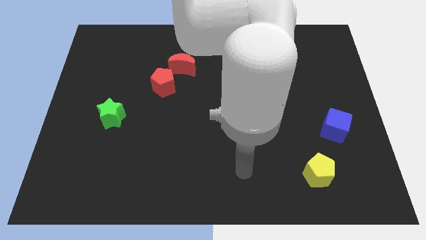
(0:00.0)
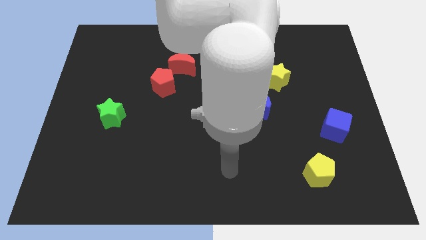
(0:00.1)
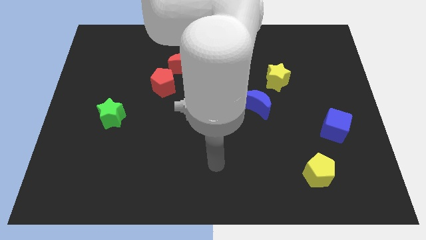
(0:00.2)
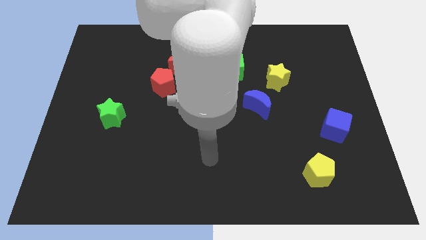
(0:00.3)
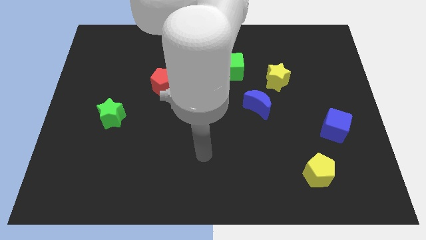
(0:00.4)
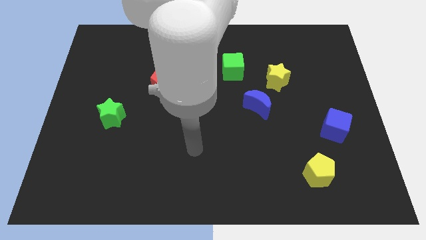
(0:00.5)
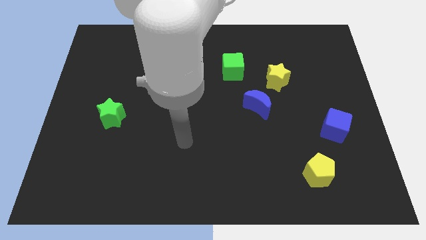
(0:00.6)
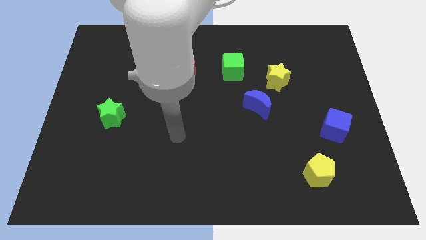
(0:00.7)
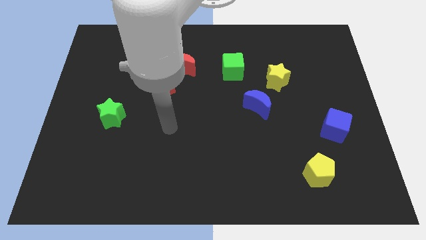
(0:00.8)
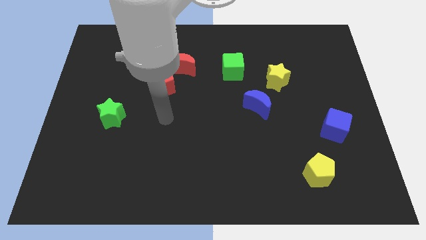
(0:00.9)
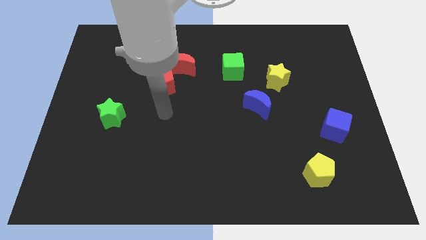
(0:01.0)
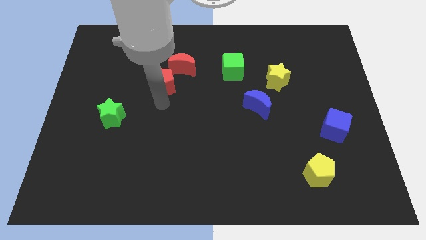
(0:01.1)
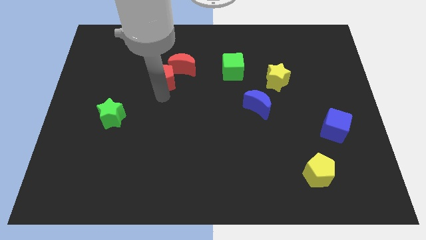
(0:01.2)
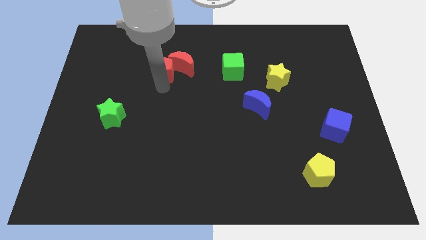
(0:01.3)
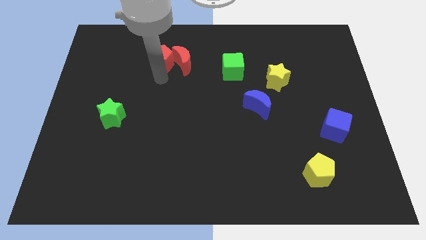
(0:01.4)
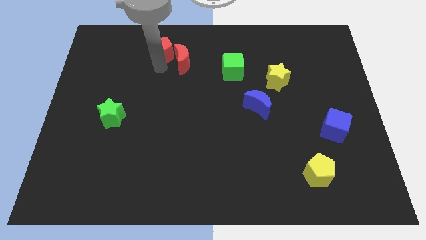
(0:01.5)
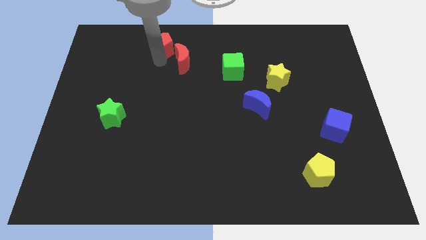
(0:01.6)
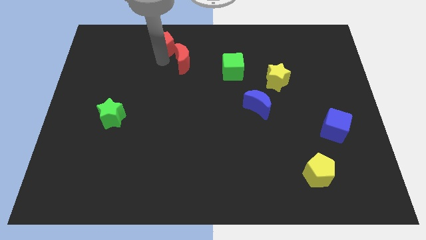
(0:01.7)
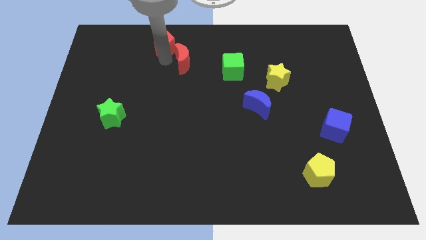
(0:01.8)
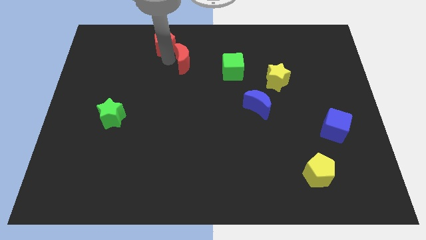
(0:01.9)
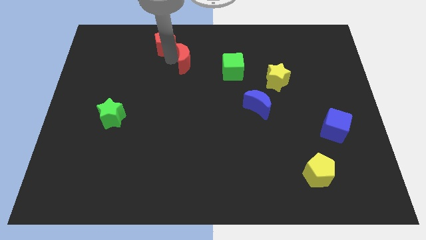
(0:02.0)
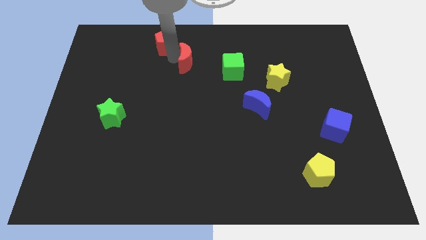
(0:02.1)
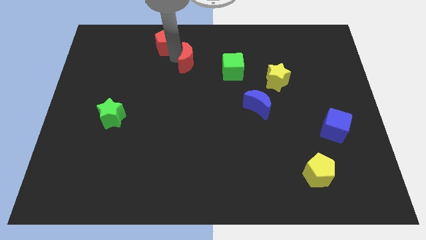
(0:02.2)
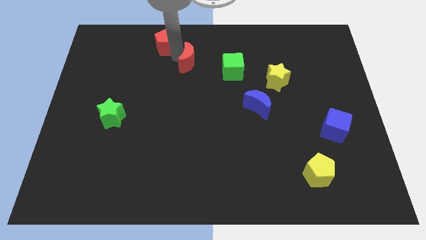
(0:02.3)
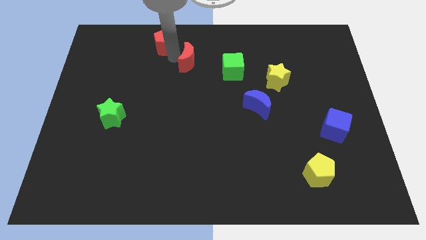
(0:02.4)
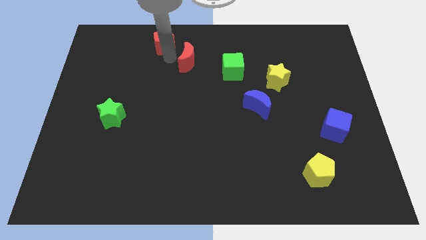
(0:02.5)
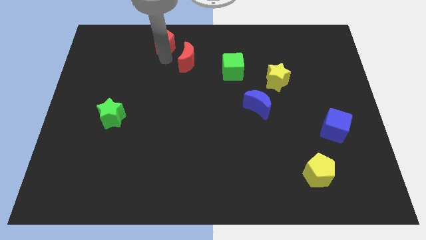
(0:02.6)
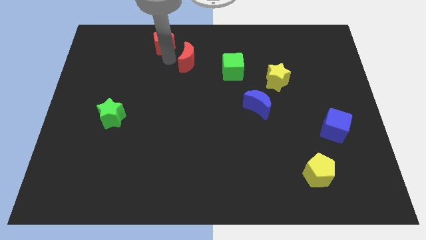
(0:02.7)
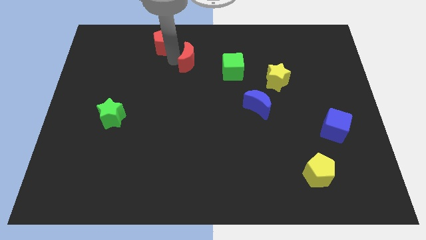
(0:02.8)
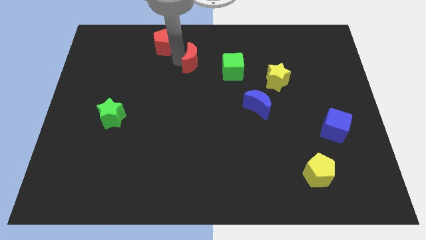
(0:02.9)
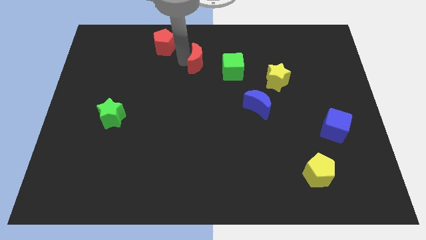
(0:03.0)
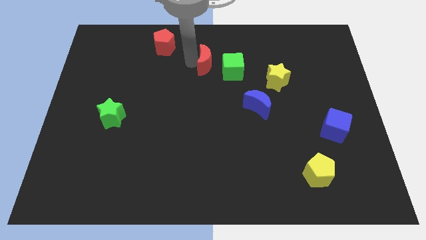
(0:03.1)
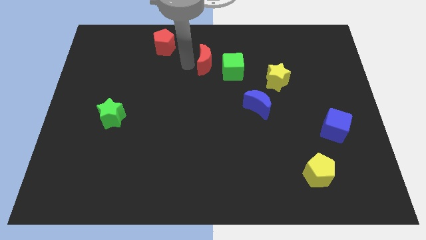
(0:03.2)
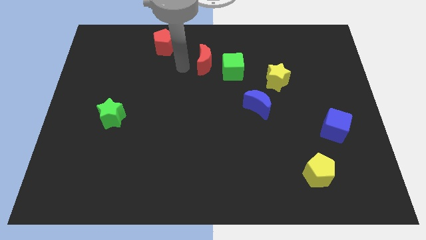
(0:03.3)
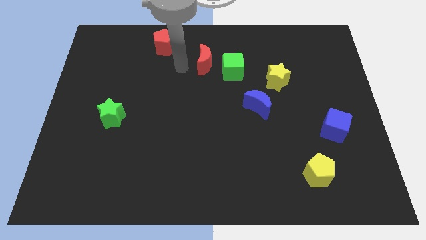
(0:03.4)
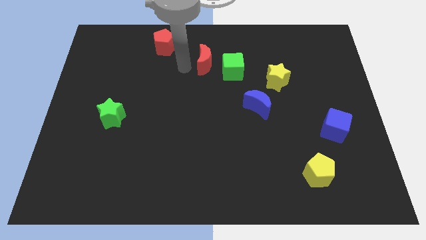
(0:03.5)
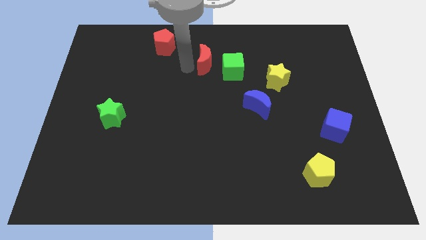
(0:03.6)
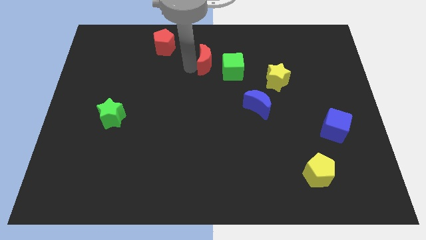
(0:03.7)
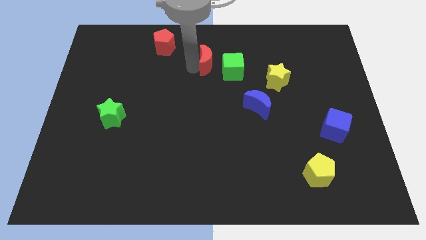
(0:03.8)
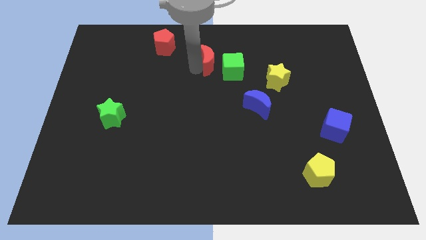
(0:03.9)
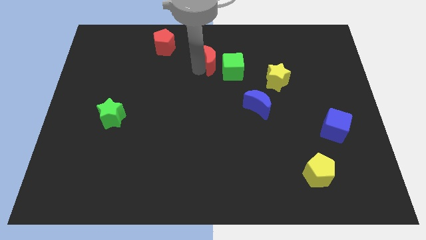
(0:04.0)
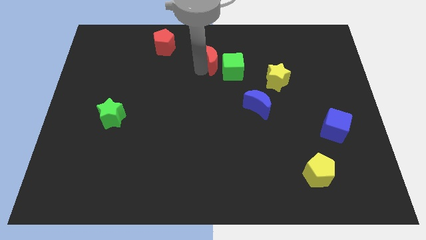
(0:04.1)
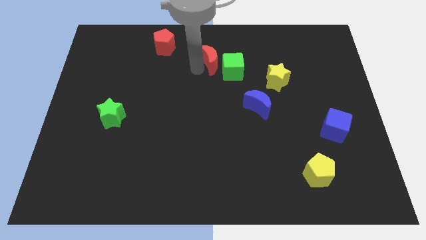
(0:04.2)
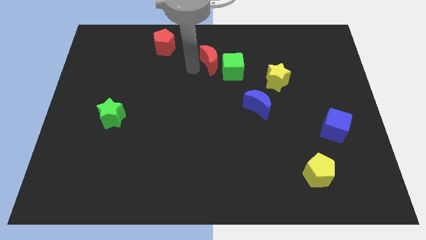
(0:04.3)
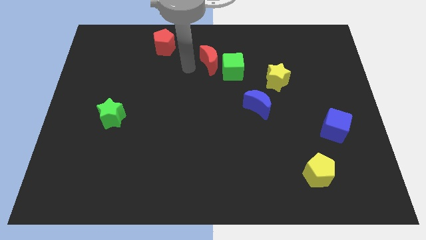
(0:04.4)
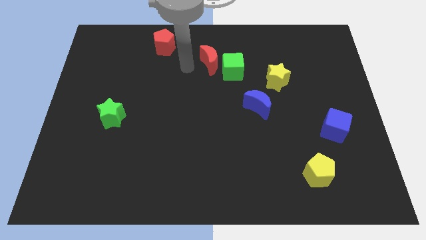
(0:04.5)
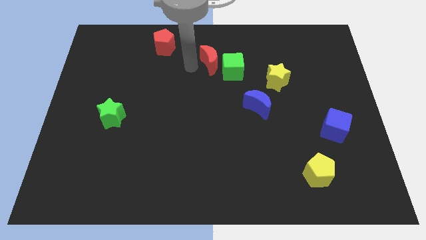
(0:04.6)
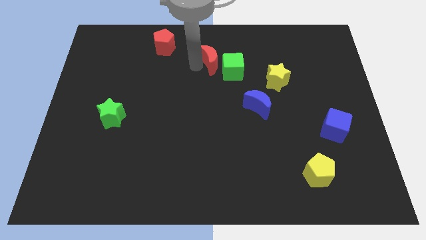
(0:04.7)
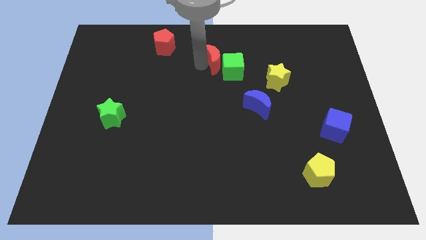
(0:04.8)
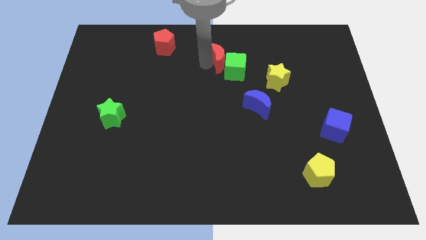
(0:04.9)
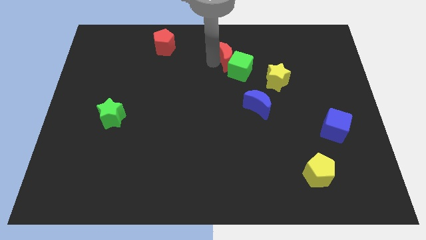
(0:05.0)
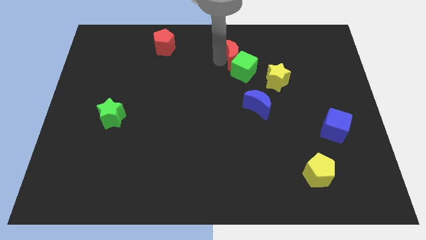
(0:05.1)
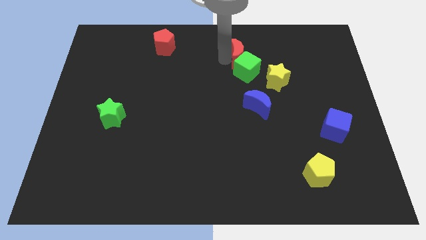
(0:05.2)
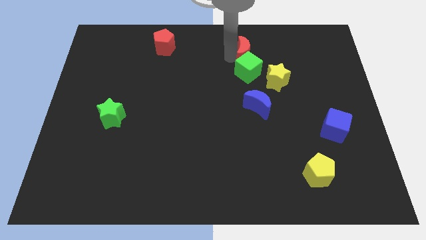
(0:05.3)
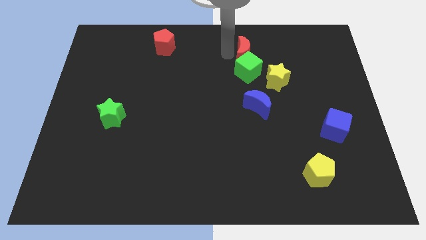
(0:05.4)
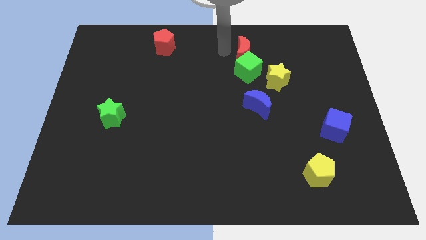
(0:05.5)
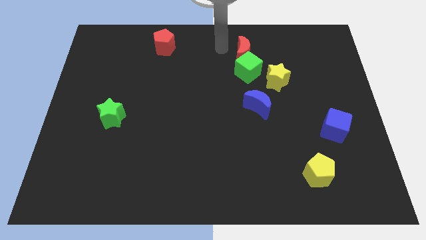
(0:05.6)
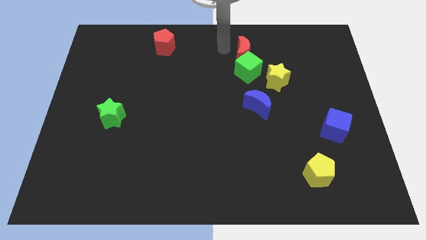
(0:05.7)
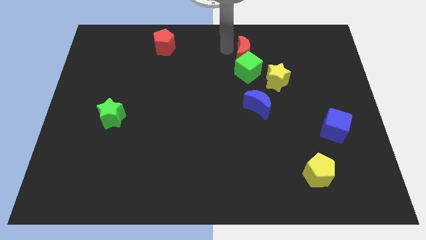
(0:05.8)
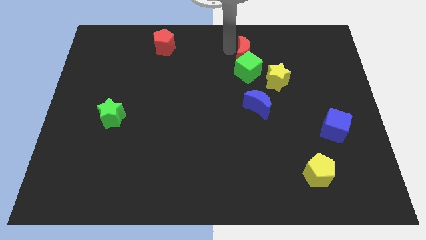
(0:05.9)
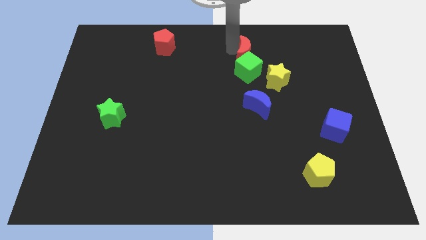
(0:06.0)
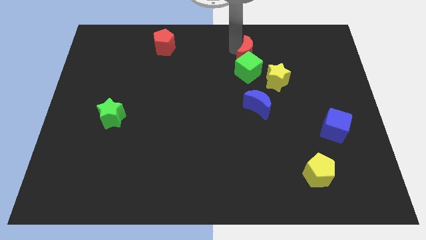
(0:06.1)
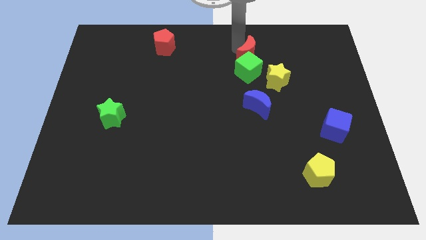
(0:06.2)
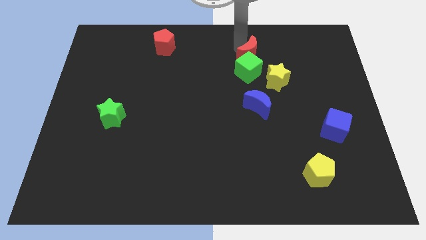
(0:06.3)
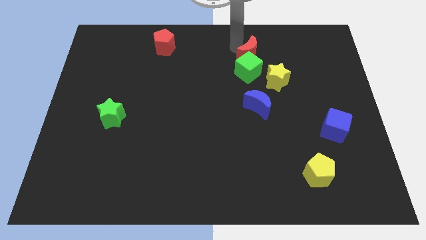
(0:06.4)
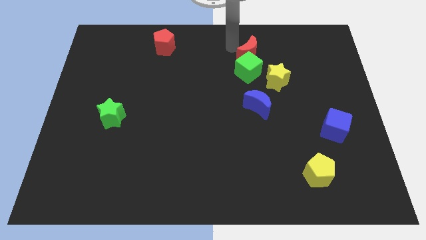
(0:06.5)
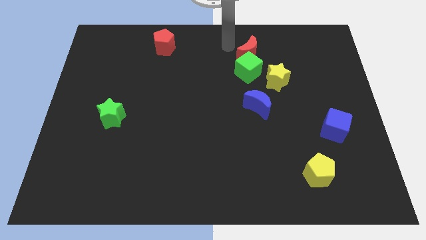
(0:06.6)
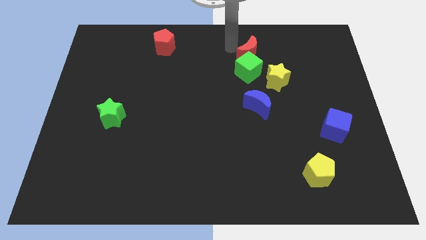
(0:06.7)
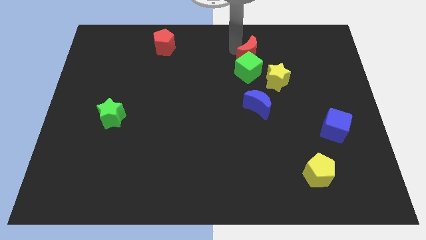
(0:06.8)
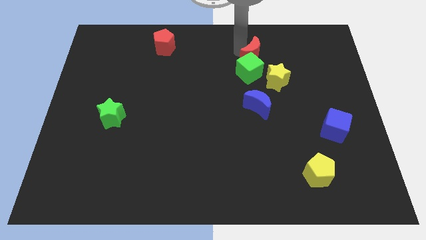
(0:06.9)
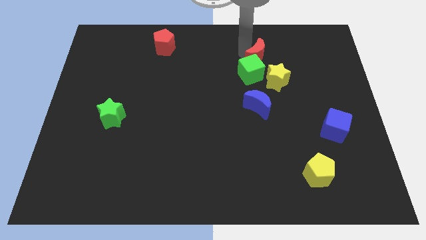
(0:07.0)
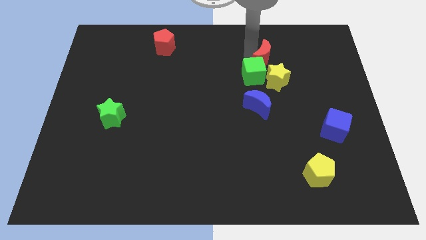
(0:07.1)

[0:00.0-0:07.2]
move the red moon right

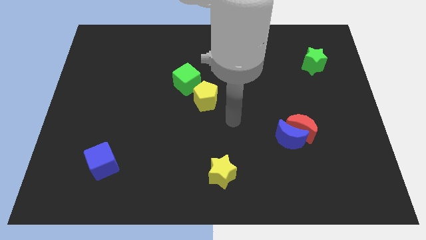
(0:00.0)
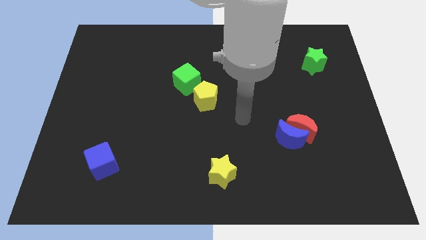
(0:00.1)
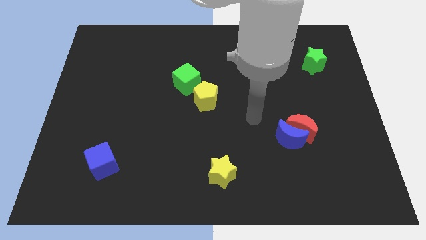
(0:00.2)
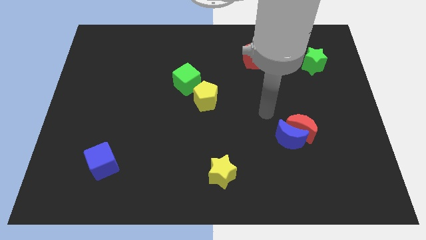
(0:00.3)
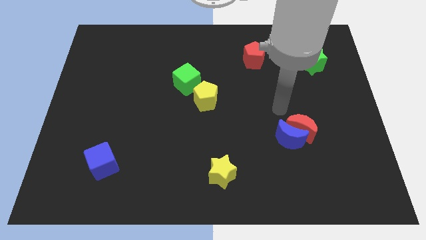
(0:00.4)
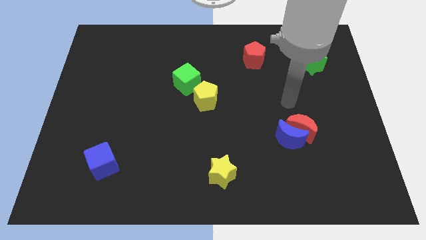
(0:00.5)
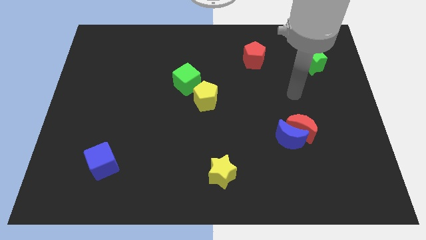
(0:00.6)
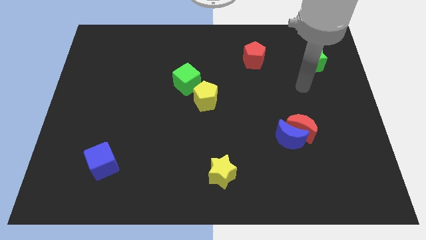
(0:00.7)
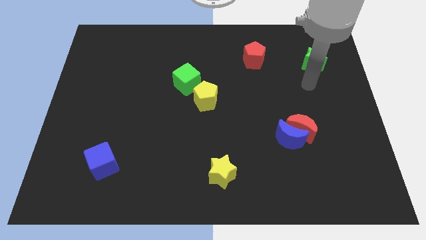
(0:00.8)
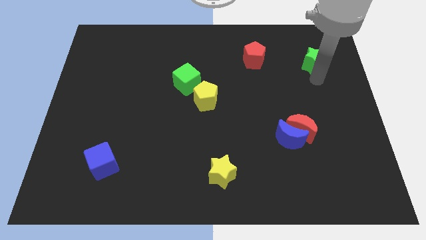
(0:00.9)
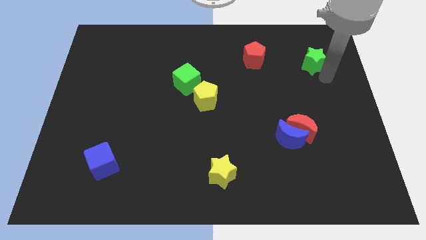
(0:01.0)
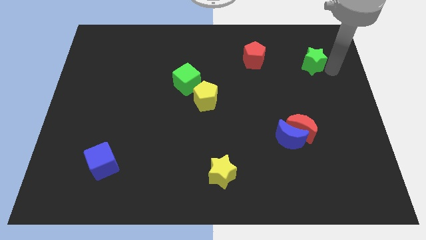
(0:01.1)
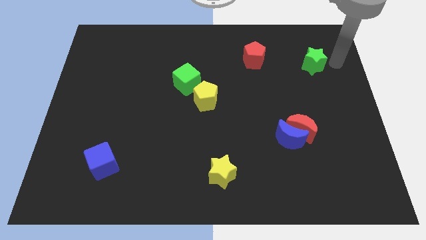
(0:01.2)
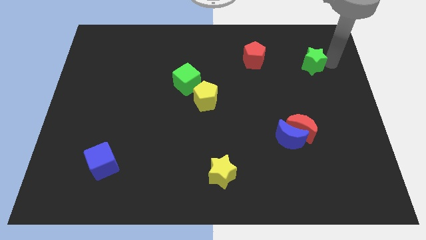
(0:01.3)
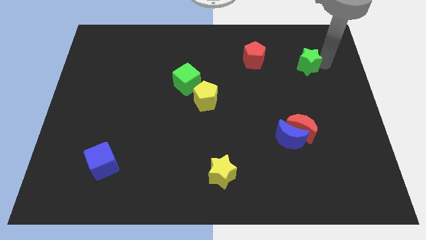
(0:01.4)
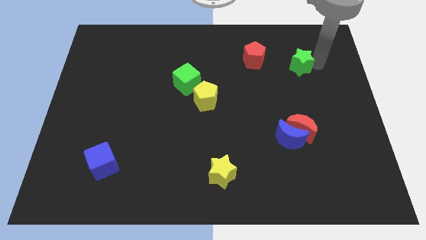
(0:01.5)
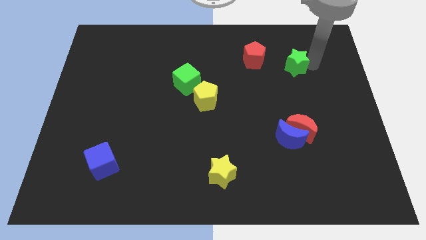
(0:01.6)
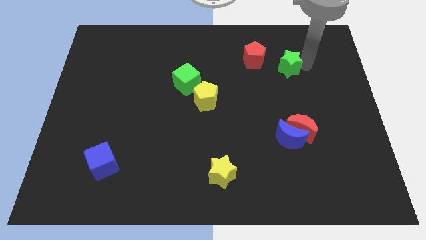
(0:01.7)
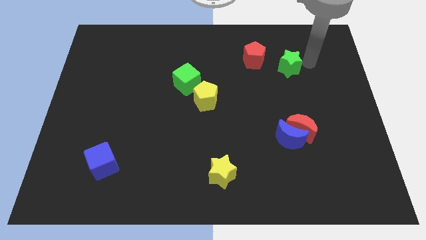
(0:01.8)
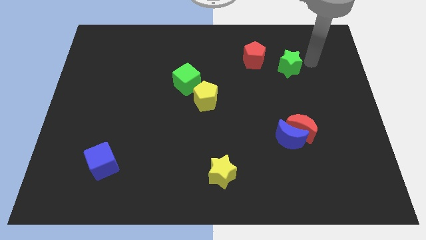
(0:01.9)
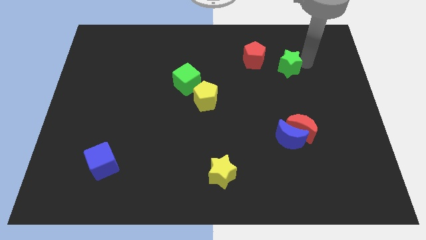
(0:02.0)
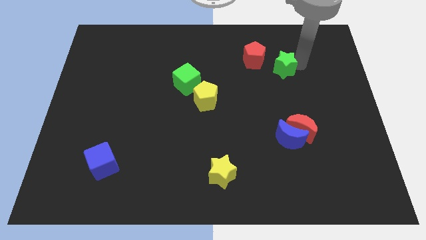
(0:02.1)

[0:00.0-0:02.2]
slightly push the green star left
